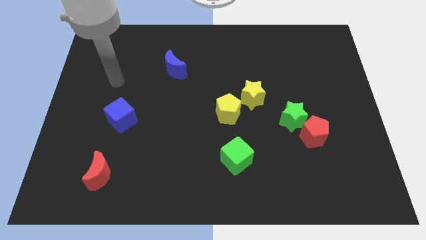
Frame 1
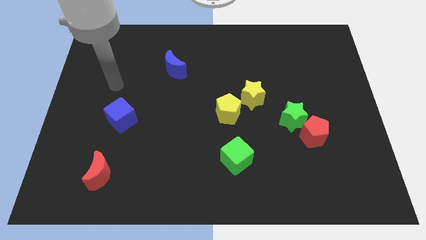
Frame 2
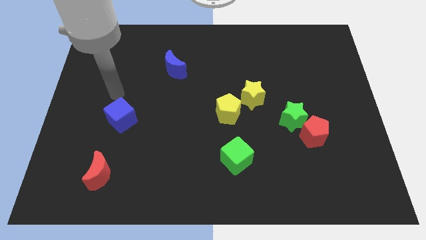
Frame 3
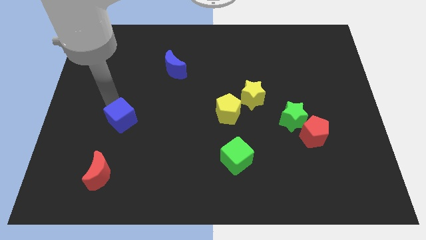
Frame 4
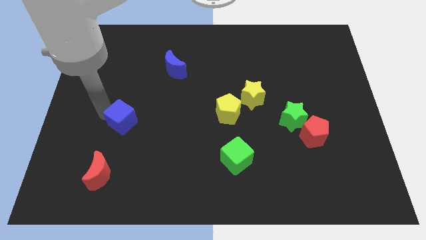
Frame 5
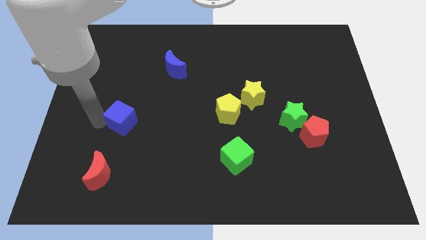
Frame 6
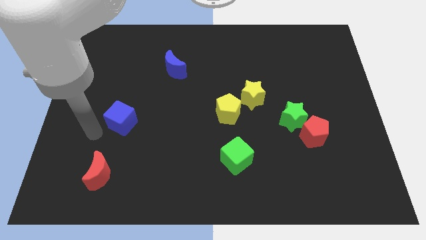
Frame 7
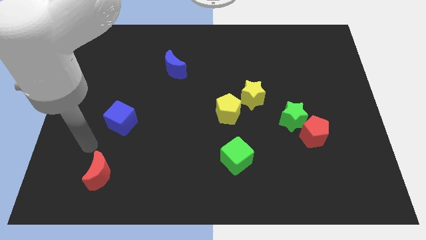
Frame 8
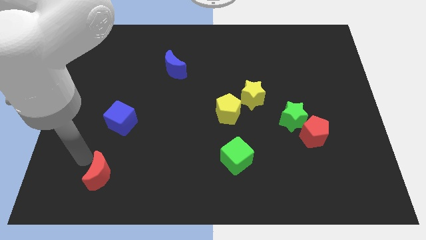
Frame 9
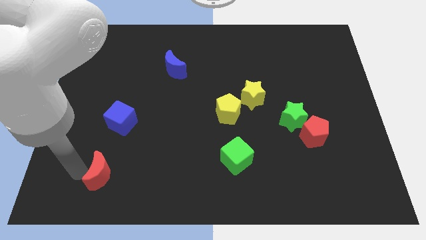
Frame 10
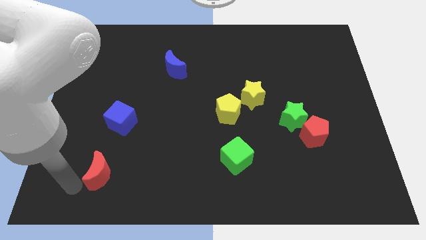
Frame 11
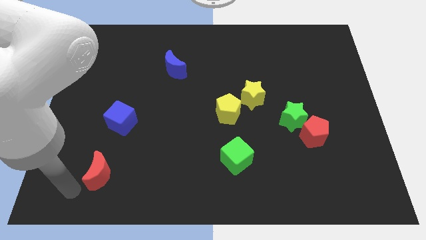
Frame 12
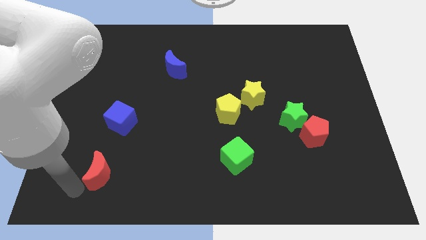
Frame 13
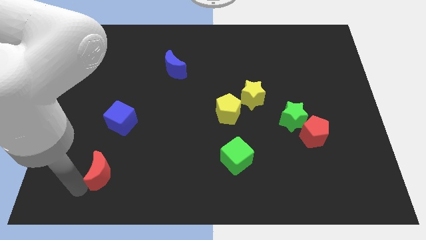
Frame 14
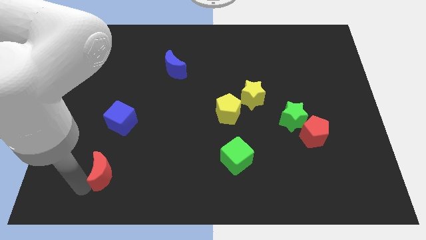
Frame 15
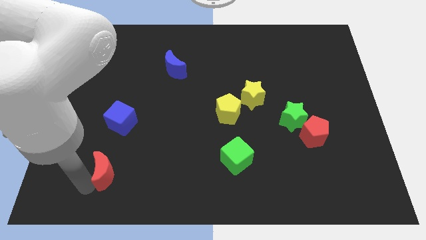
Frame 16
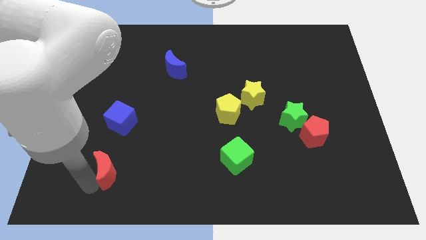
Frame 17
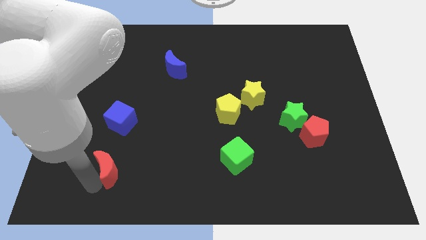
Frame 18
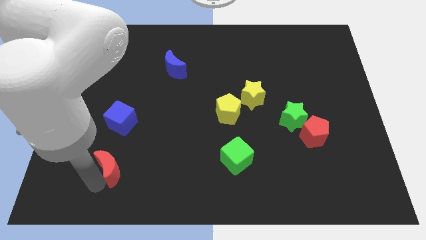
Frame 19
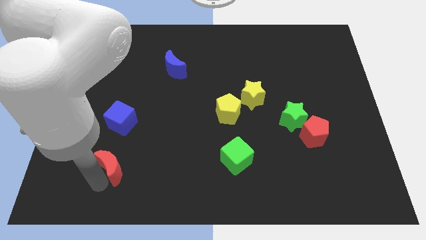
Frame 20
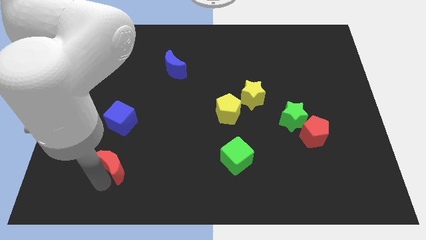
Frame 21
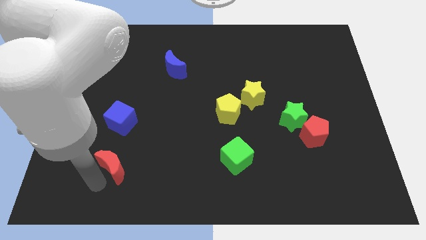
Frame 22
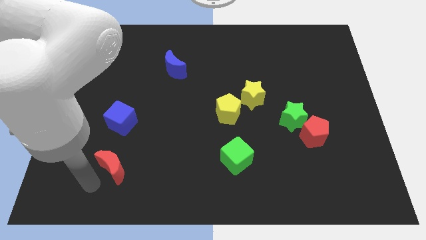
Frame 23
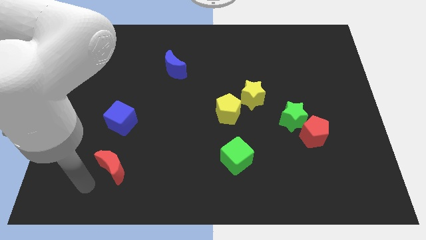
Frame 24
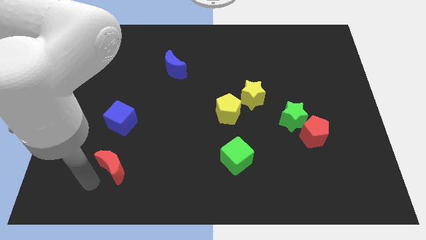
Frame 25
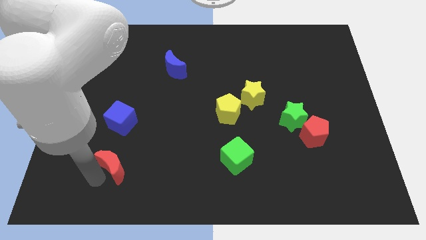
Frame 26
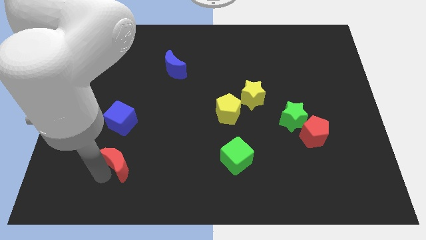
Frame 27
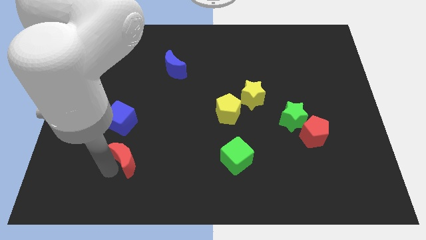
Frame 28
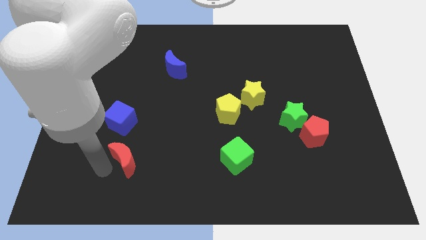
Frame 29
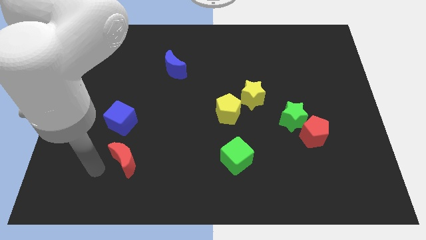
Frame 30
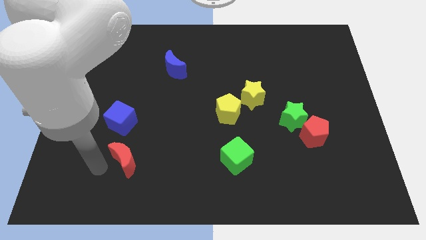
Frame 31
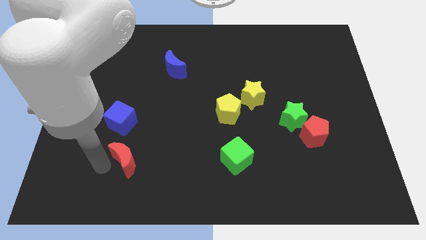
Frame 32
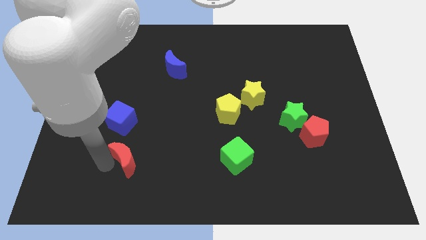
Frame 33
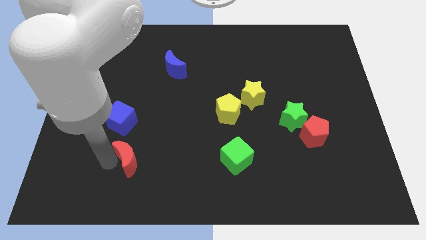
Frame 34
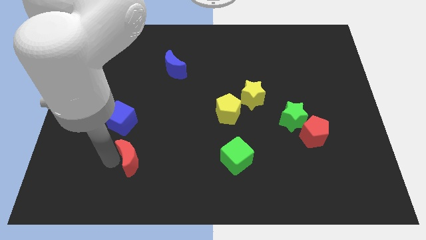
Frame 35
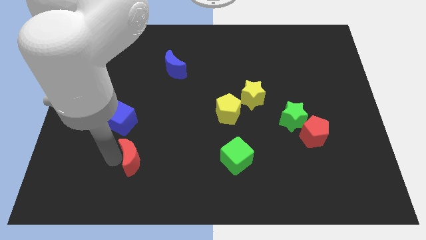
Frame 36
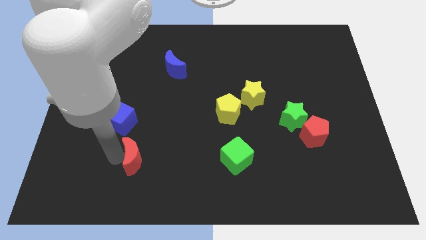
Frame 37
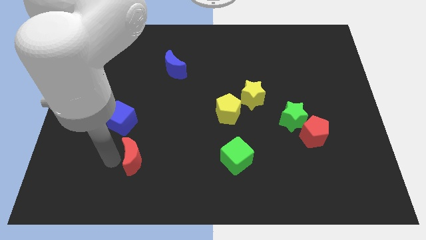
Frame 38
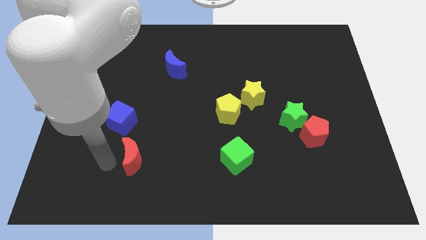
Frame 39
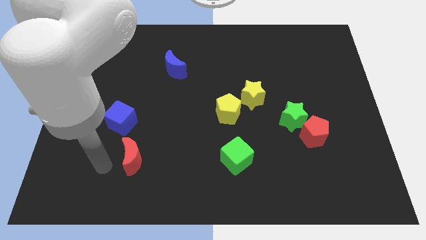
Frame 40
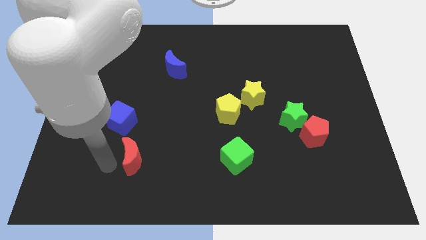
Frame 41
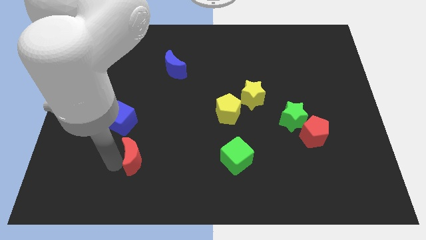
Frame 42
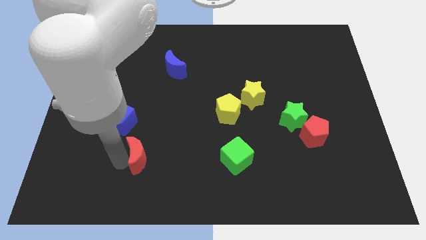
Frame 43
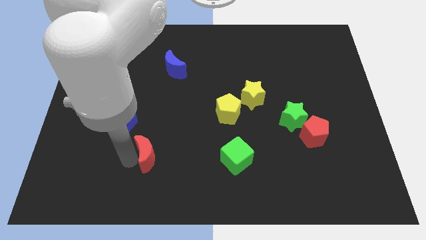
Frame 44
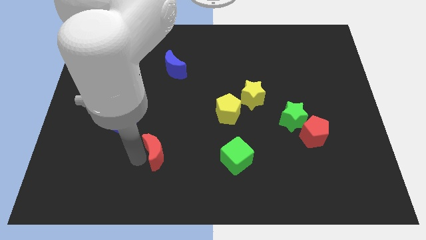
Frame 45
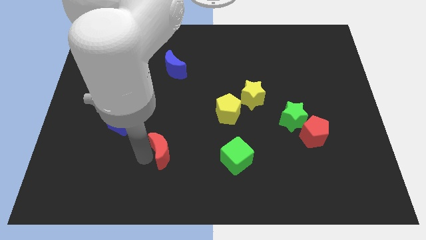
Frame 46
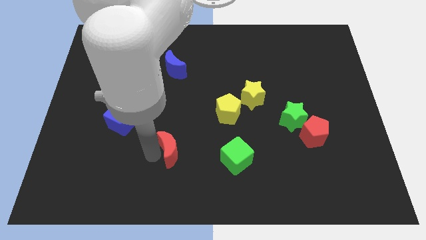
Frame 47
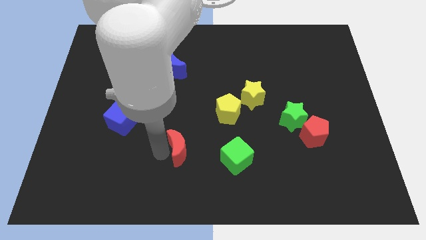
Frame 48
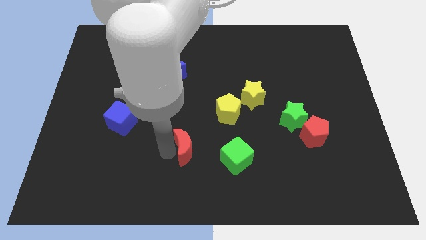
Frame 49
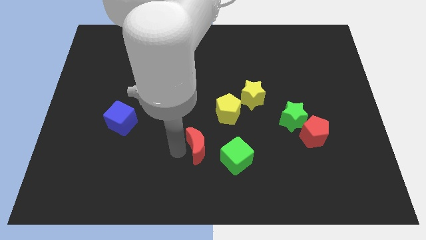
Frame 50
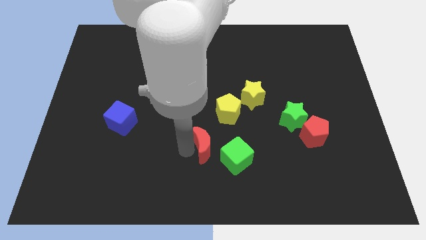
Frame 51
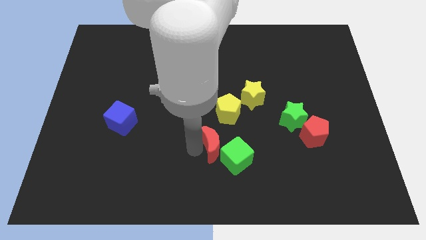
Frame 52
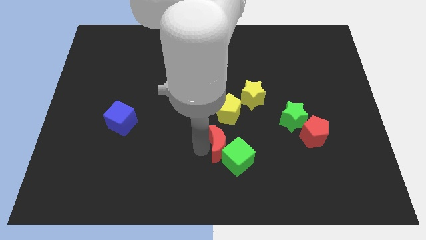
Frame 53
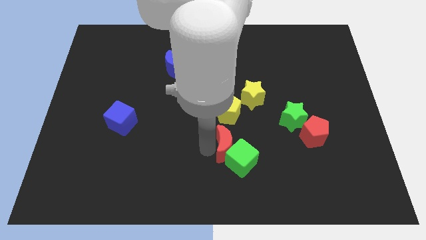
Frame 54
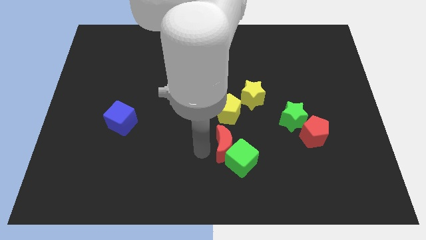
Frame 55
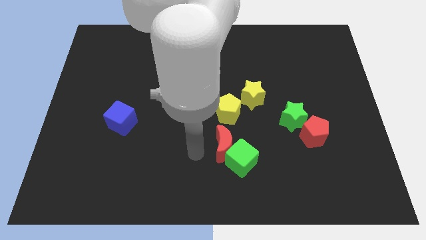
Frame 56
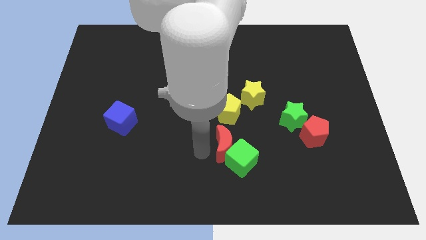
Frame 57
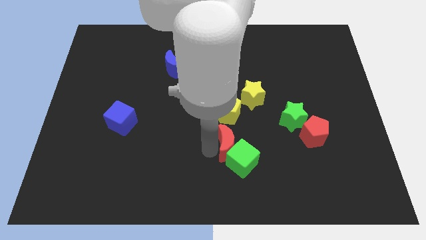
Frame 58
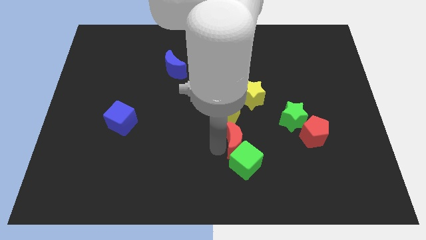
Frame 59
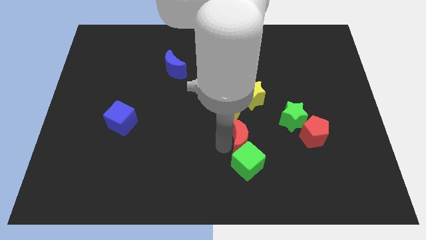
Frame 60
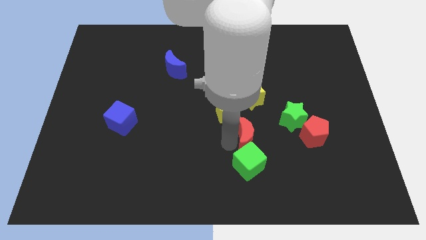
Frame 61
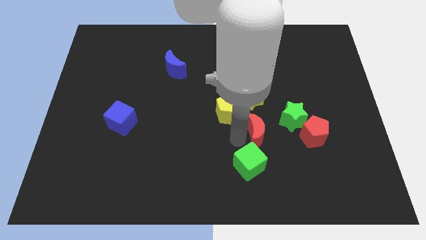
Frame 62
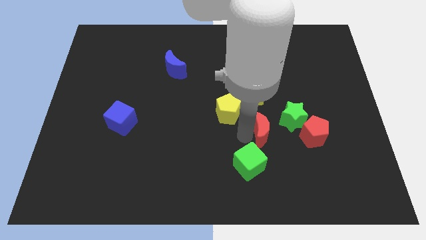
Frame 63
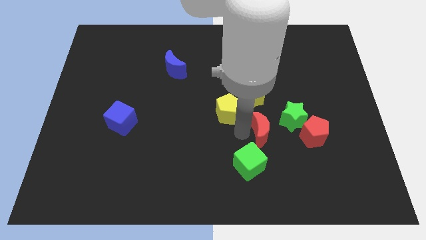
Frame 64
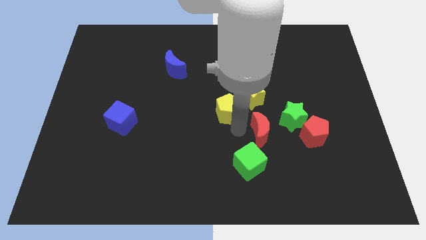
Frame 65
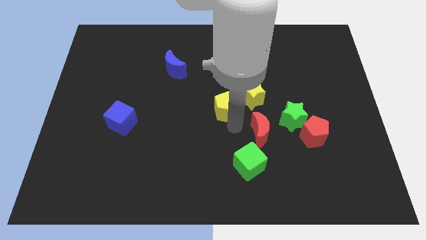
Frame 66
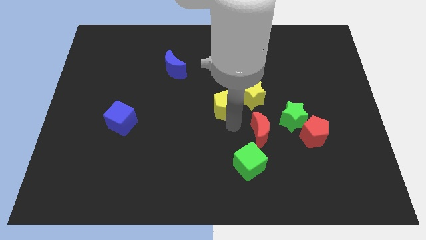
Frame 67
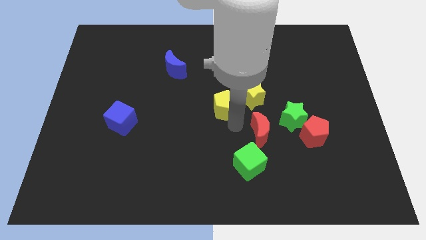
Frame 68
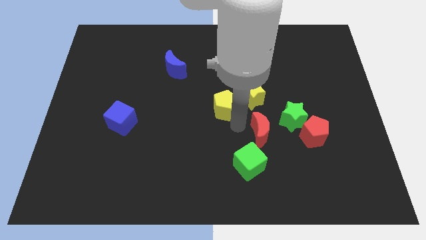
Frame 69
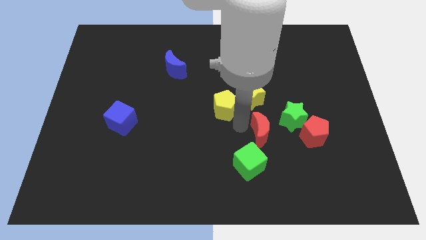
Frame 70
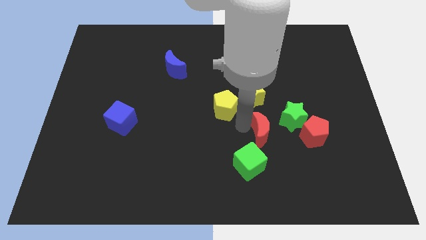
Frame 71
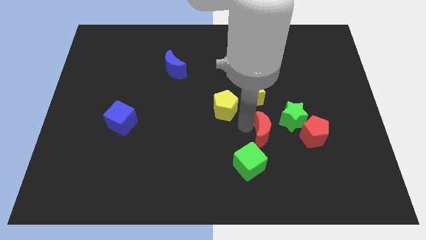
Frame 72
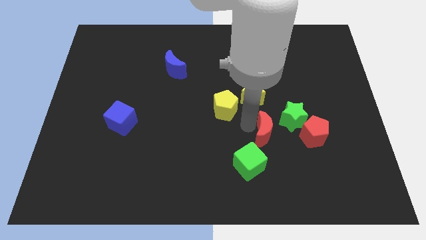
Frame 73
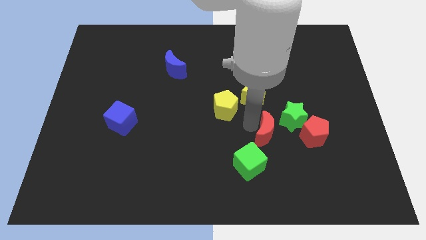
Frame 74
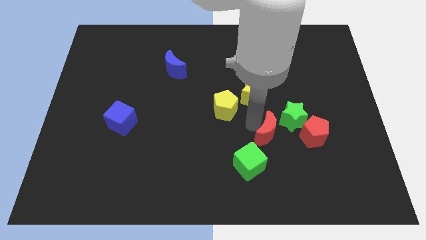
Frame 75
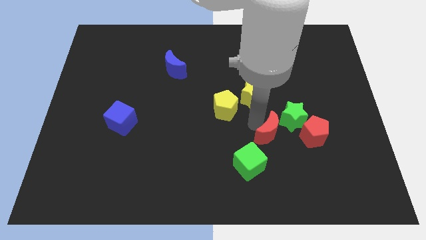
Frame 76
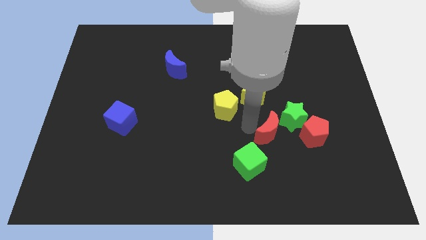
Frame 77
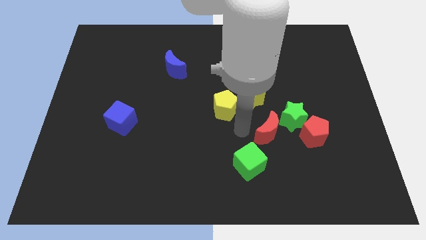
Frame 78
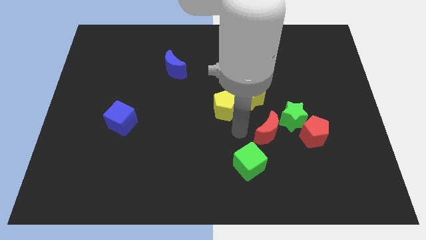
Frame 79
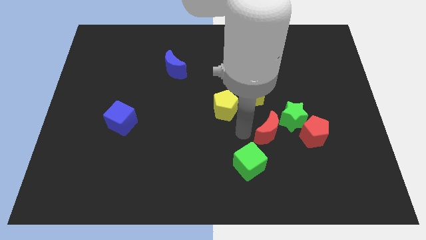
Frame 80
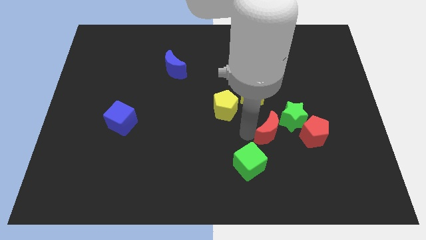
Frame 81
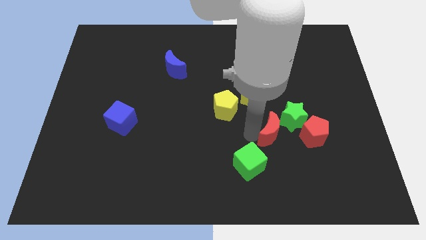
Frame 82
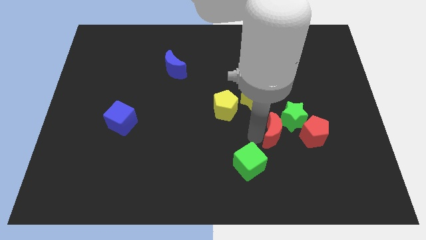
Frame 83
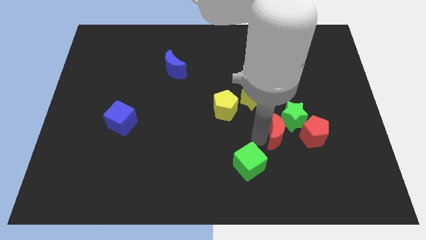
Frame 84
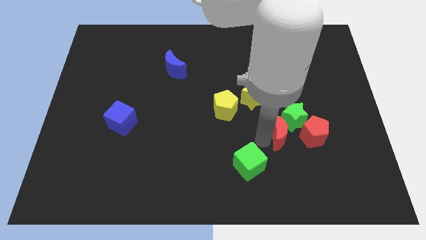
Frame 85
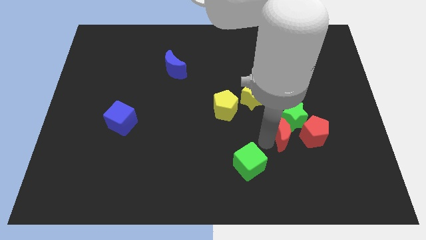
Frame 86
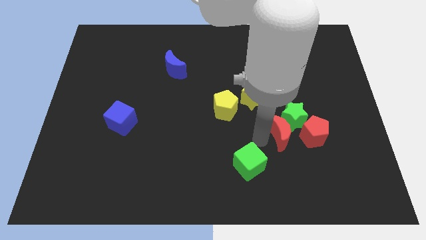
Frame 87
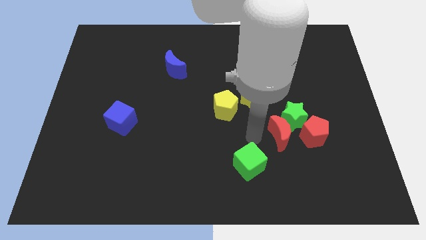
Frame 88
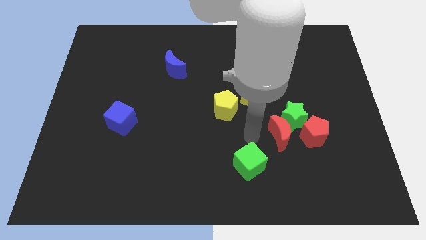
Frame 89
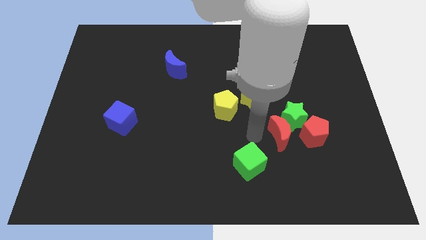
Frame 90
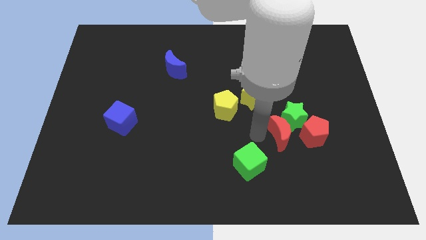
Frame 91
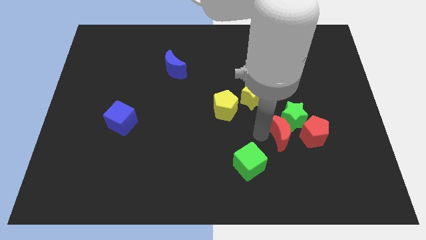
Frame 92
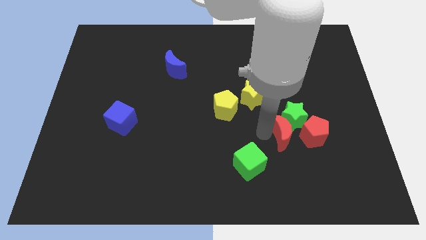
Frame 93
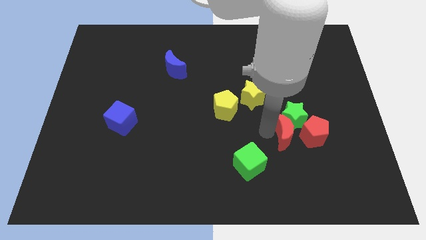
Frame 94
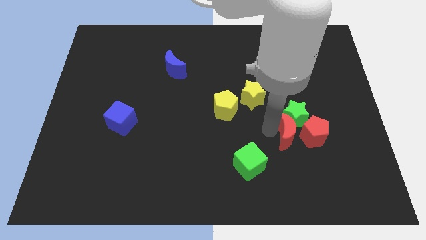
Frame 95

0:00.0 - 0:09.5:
slide the red moon to the red pentagon
